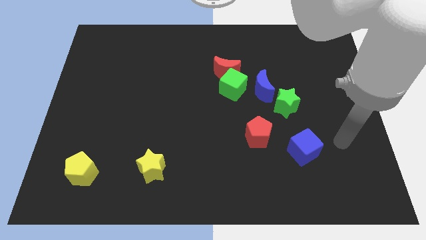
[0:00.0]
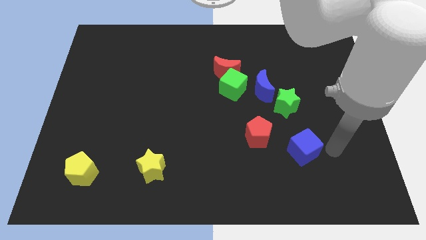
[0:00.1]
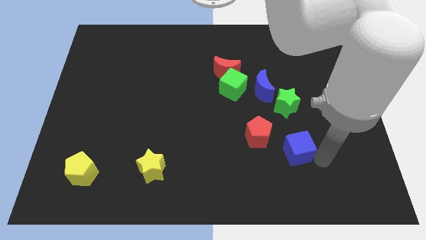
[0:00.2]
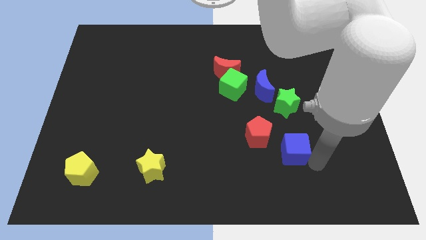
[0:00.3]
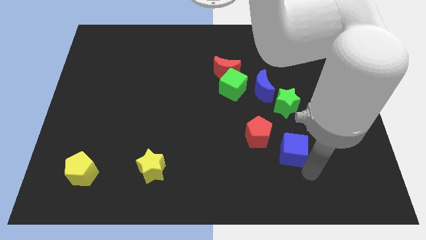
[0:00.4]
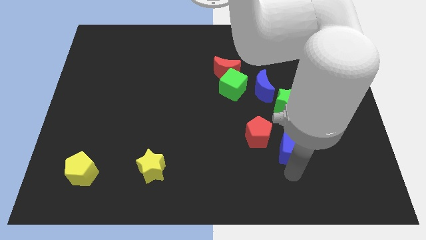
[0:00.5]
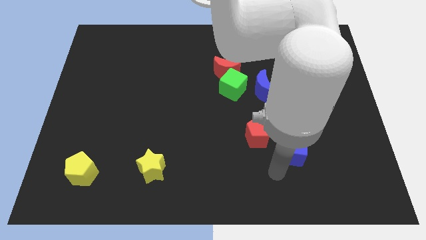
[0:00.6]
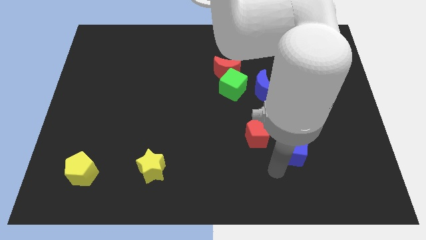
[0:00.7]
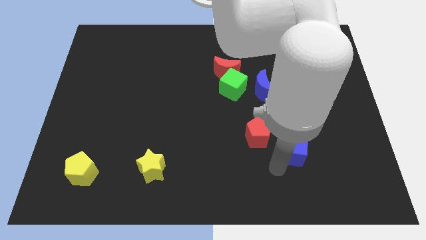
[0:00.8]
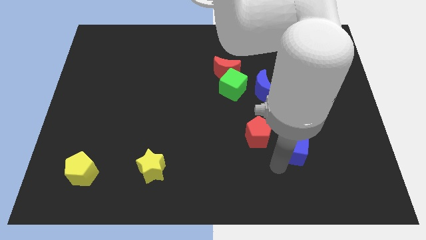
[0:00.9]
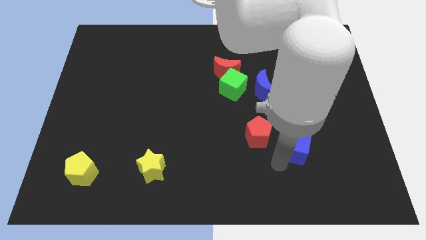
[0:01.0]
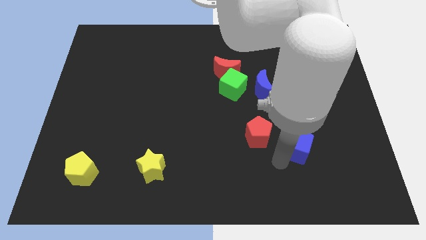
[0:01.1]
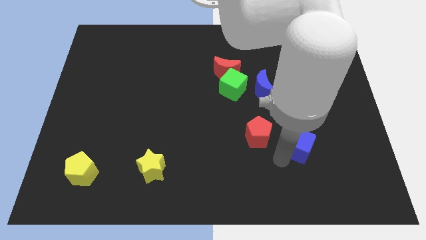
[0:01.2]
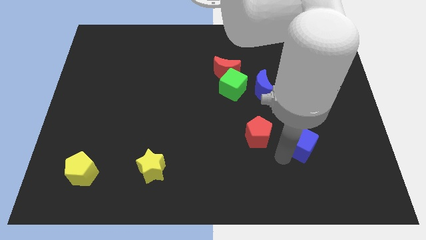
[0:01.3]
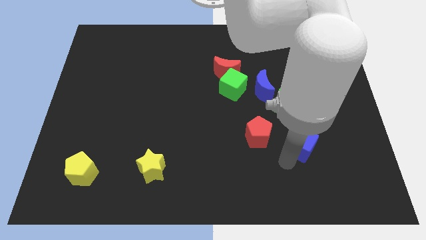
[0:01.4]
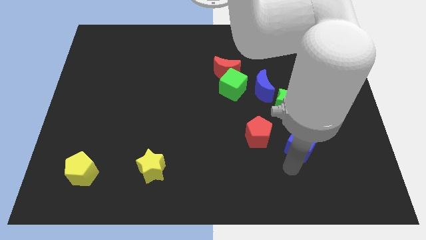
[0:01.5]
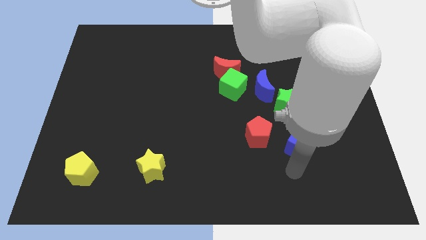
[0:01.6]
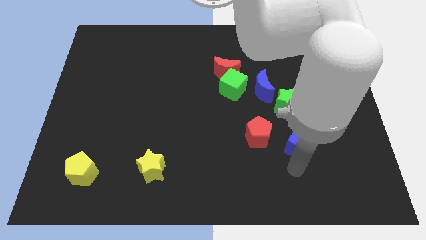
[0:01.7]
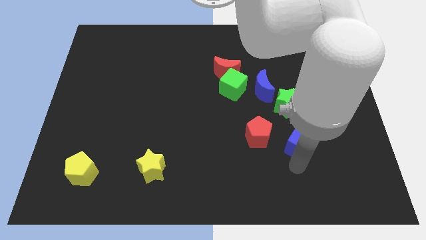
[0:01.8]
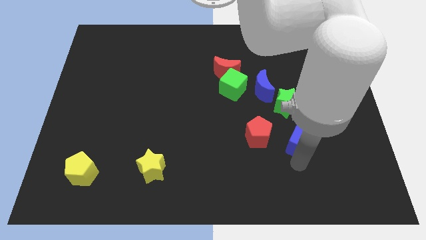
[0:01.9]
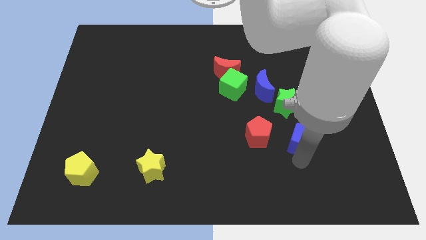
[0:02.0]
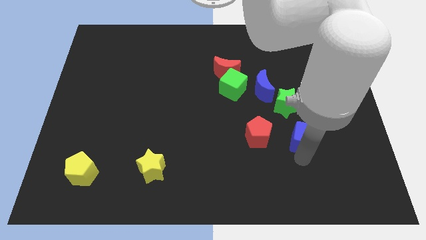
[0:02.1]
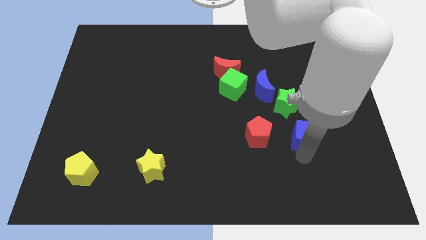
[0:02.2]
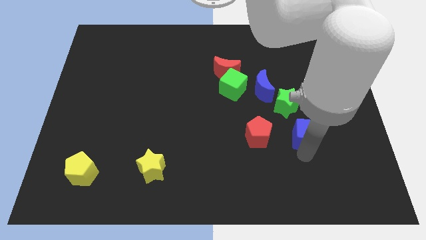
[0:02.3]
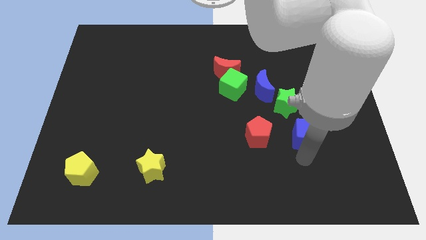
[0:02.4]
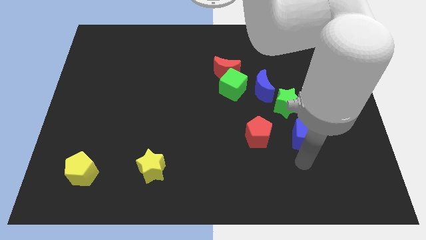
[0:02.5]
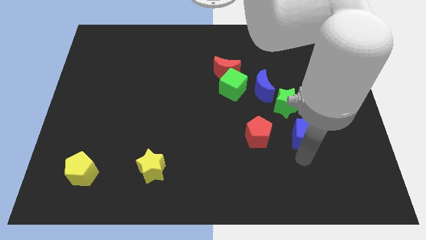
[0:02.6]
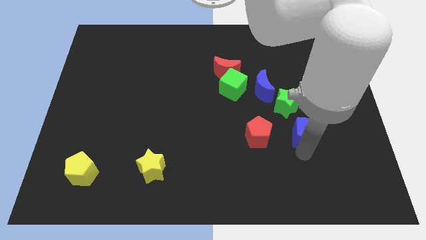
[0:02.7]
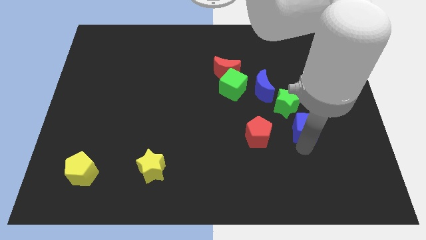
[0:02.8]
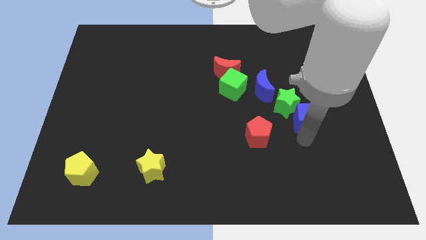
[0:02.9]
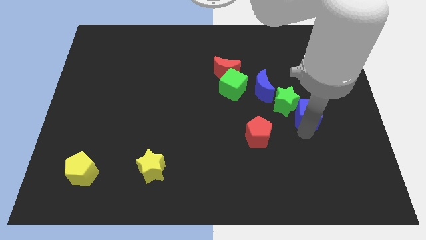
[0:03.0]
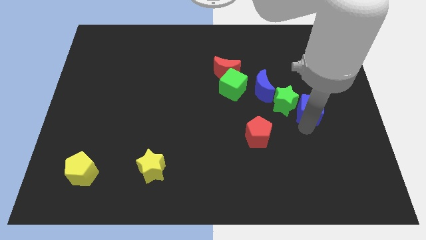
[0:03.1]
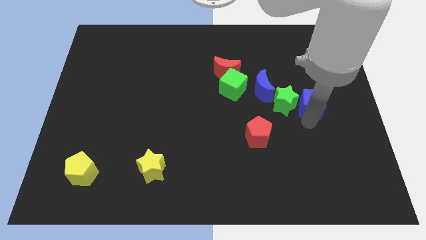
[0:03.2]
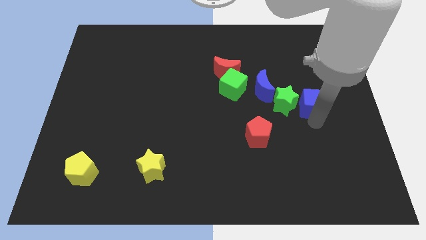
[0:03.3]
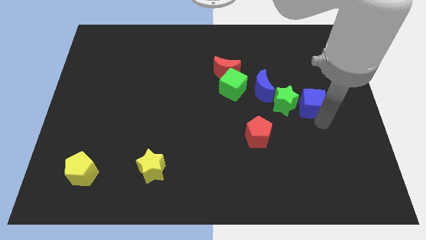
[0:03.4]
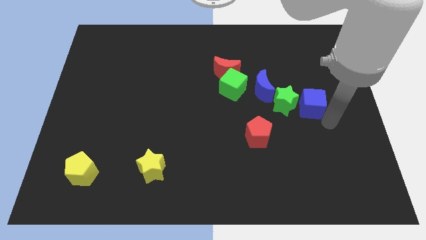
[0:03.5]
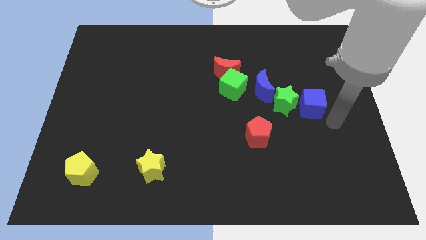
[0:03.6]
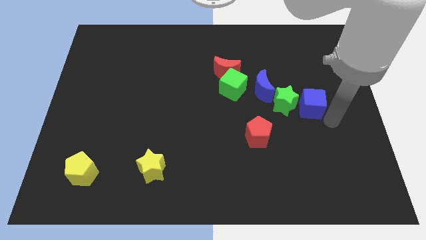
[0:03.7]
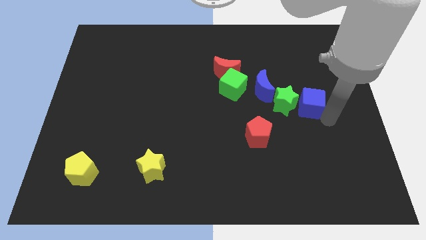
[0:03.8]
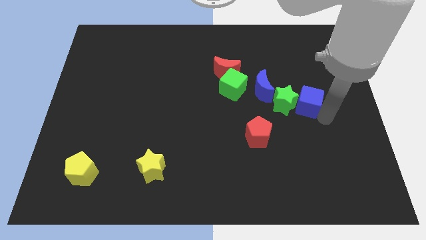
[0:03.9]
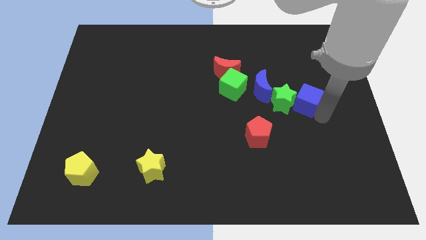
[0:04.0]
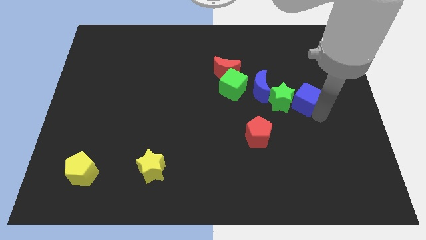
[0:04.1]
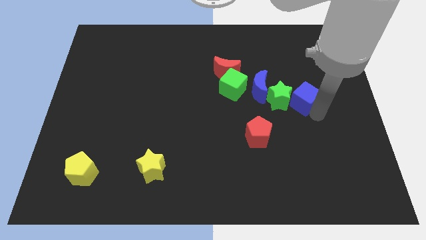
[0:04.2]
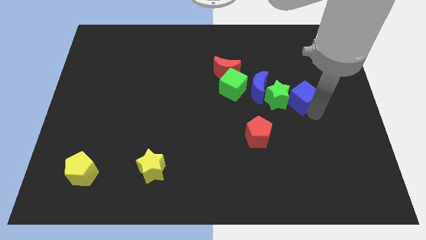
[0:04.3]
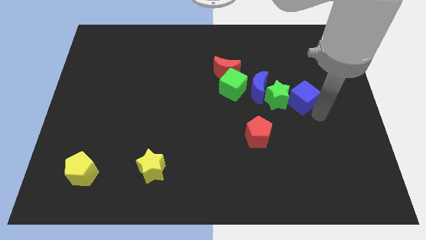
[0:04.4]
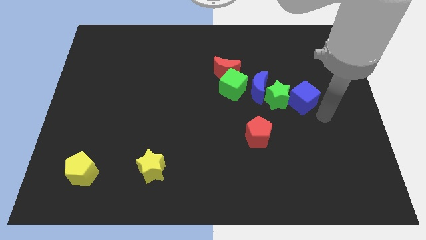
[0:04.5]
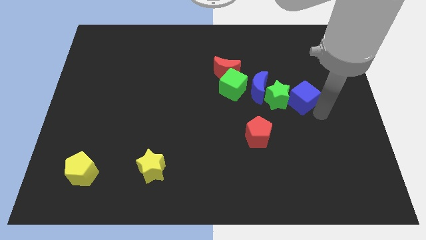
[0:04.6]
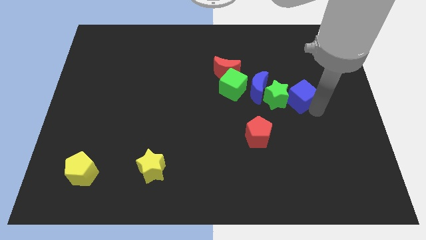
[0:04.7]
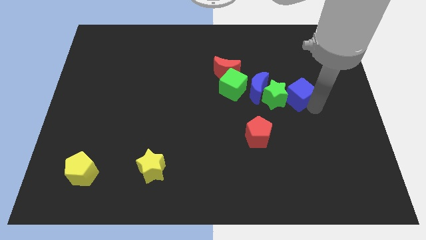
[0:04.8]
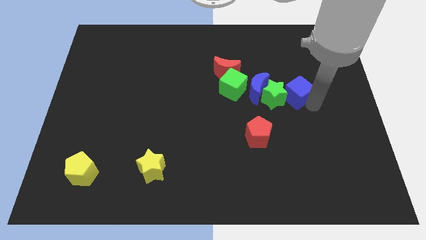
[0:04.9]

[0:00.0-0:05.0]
move the blue cube to the right side of the green cube

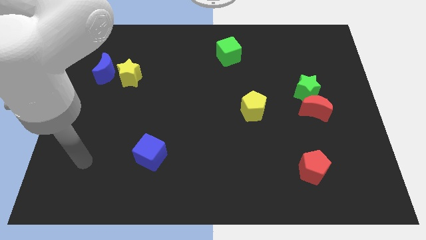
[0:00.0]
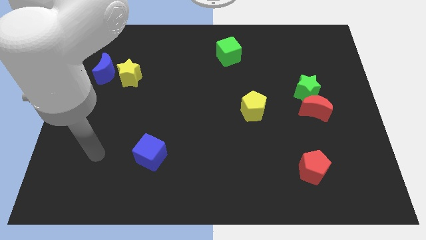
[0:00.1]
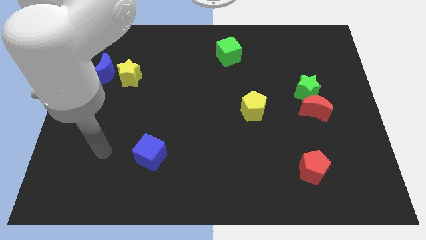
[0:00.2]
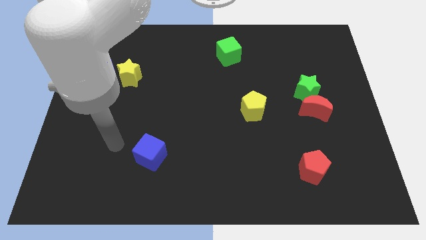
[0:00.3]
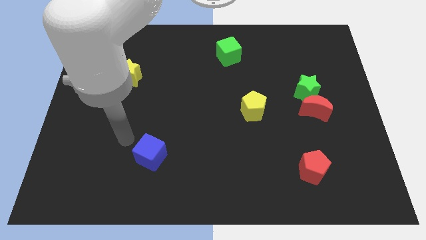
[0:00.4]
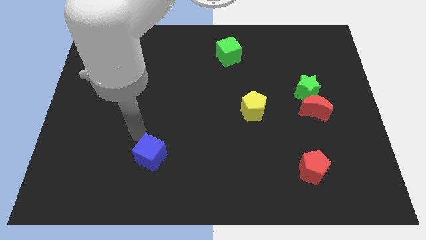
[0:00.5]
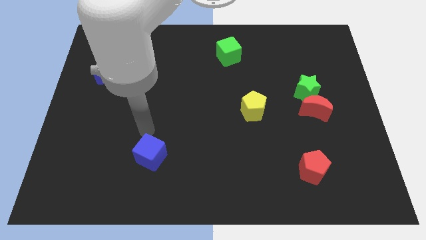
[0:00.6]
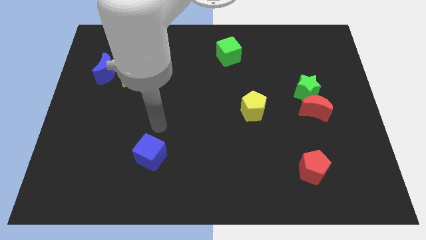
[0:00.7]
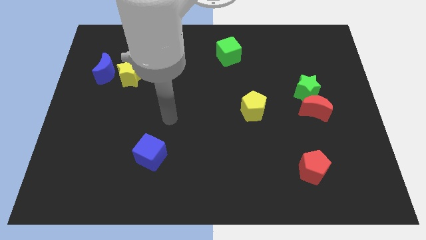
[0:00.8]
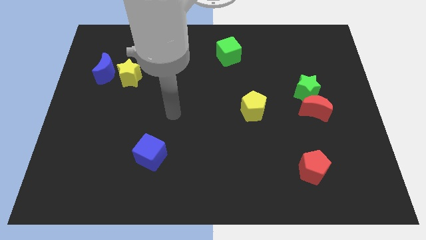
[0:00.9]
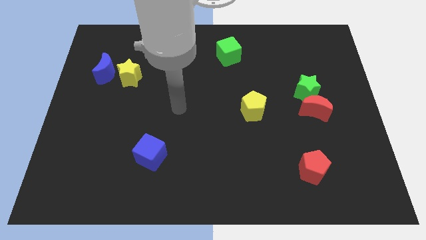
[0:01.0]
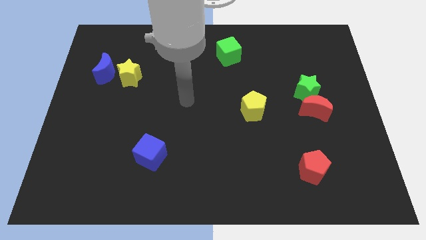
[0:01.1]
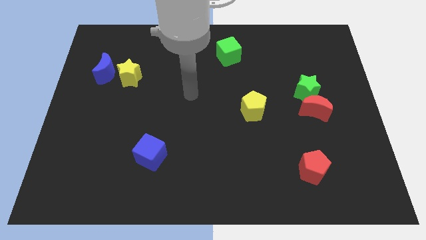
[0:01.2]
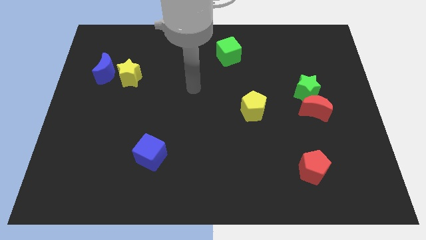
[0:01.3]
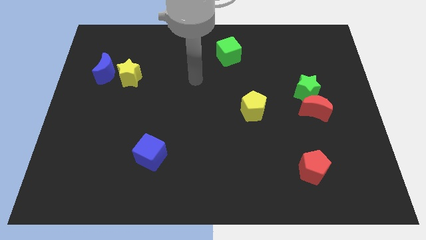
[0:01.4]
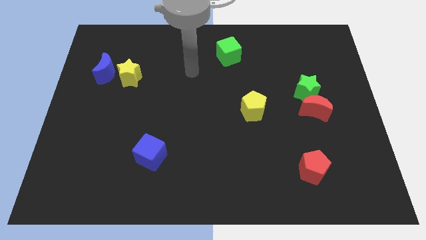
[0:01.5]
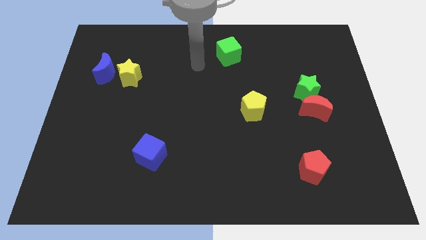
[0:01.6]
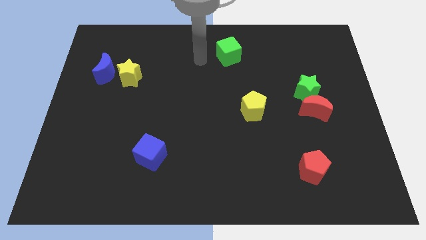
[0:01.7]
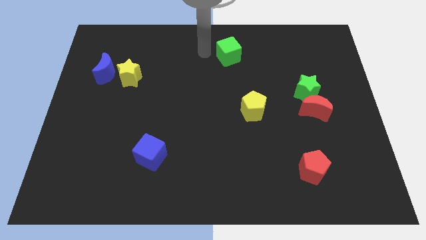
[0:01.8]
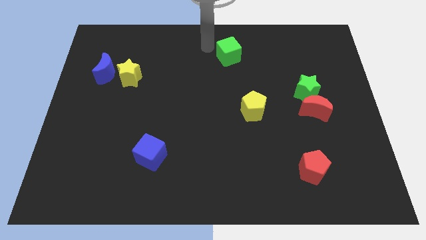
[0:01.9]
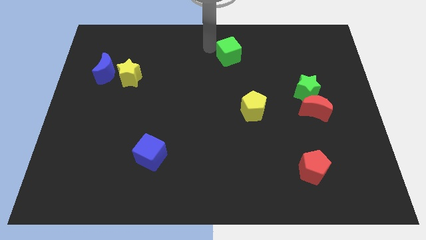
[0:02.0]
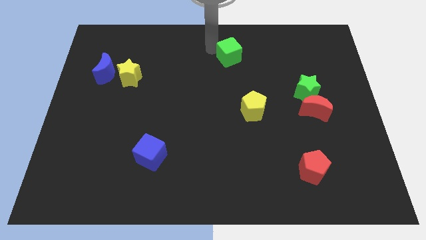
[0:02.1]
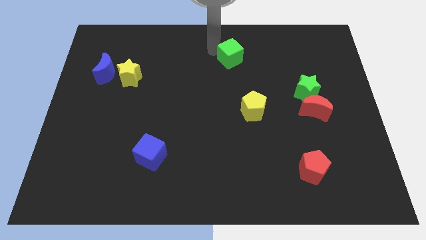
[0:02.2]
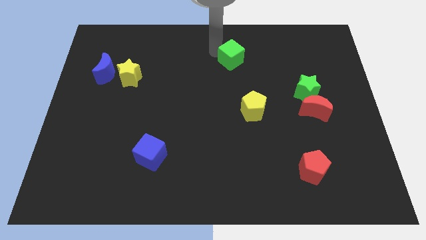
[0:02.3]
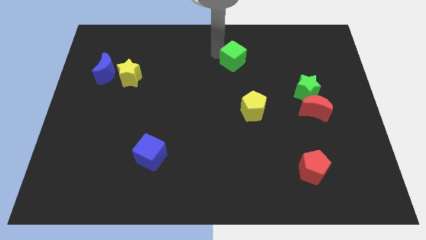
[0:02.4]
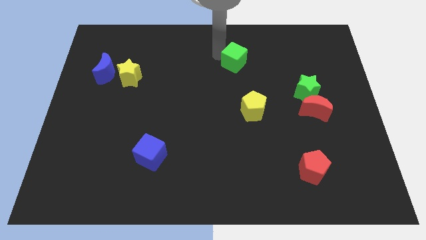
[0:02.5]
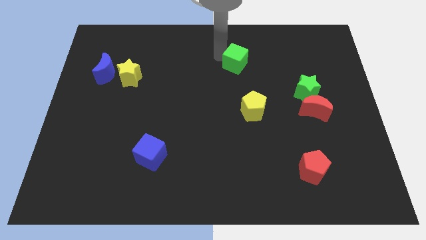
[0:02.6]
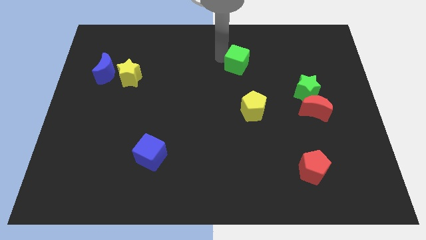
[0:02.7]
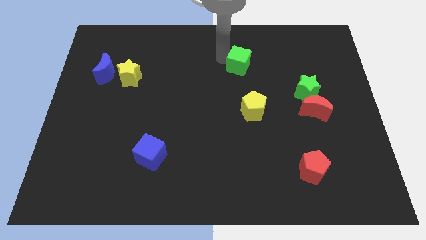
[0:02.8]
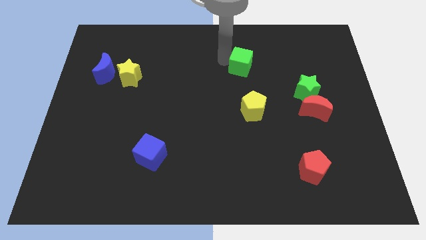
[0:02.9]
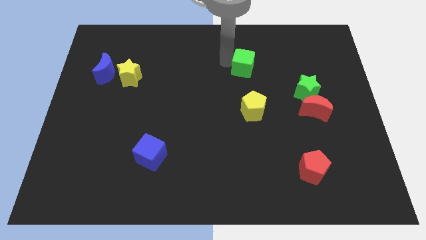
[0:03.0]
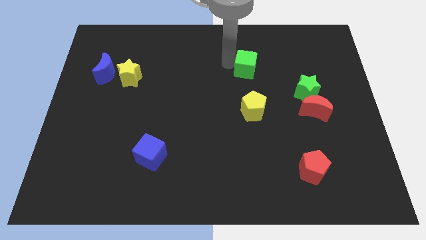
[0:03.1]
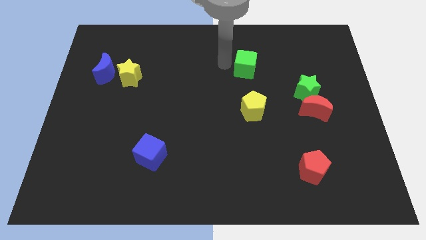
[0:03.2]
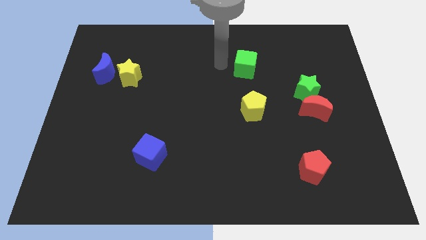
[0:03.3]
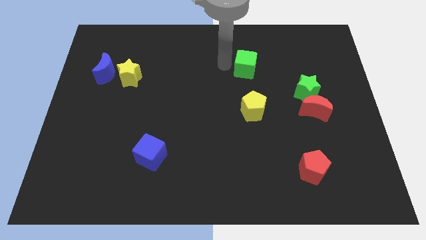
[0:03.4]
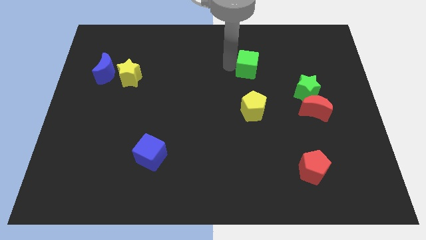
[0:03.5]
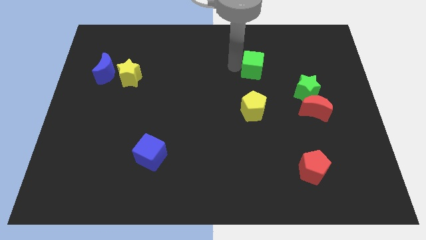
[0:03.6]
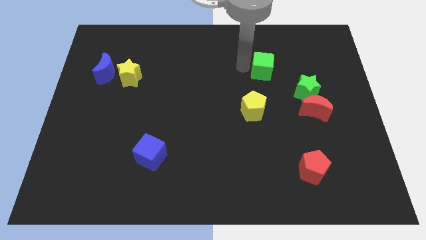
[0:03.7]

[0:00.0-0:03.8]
push the green cube to the top left of the green star
